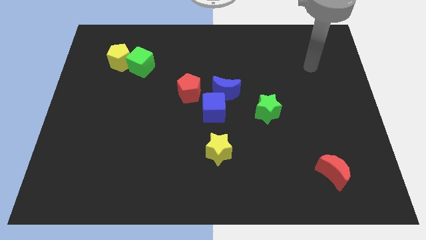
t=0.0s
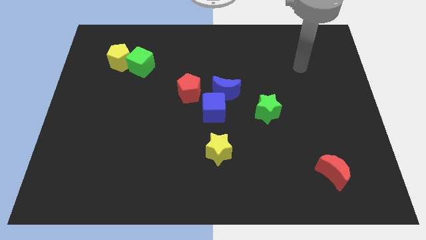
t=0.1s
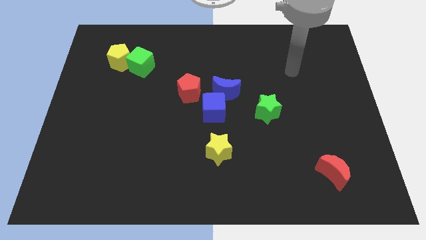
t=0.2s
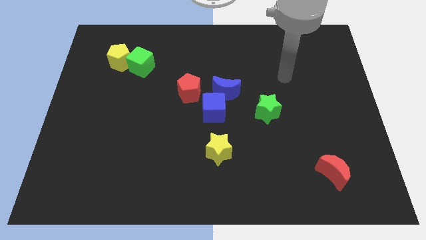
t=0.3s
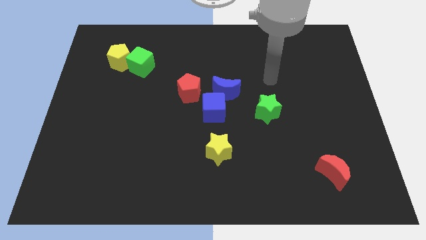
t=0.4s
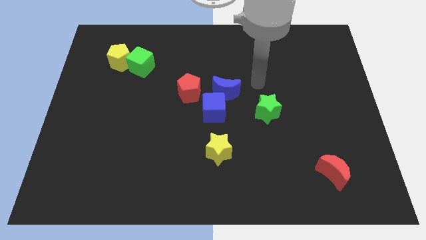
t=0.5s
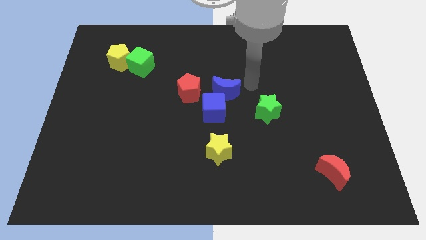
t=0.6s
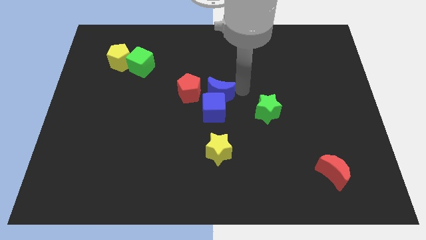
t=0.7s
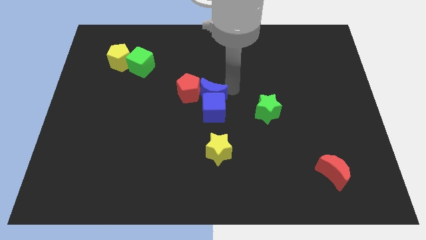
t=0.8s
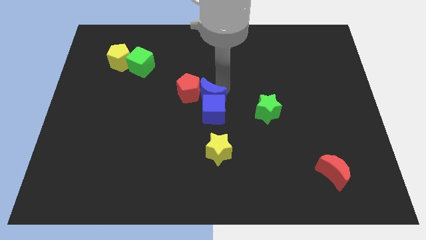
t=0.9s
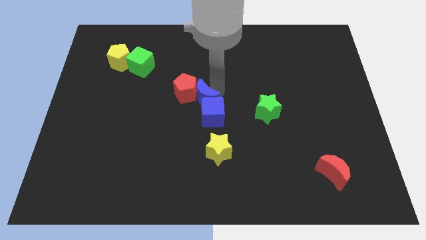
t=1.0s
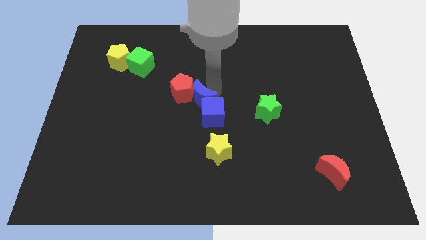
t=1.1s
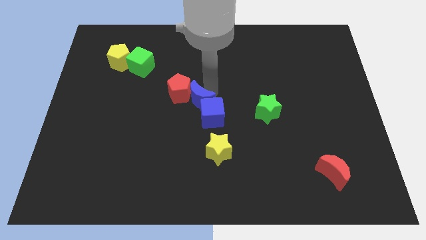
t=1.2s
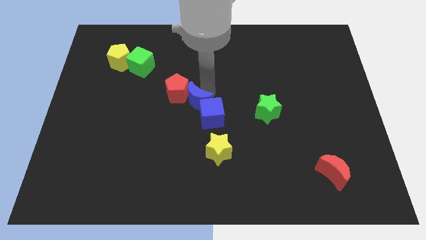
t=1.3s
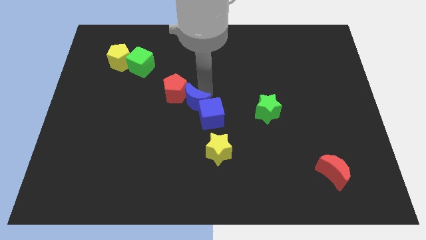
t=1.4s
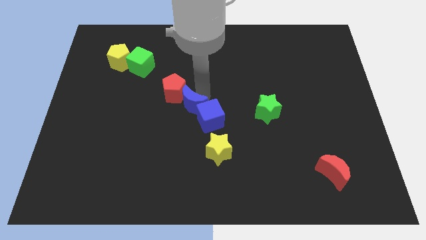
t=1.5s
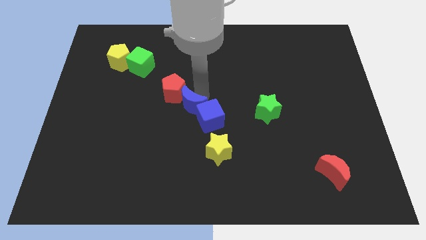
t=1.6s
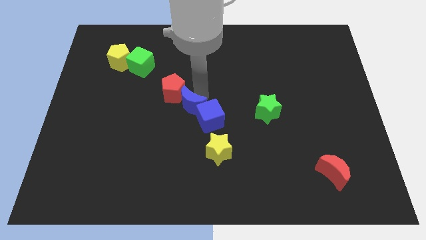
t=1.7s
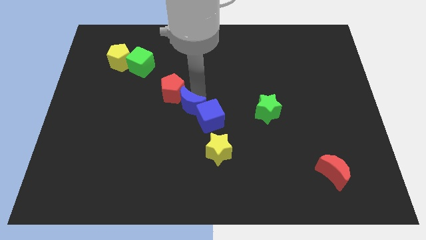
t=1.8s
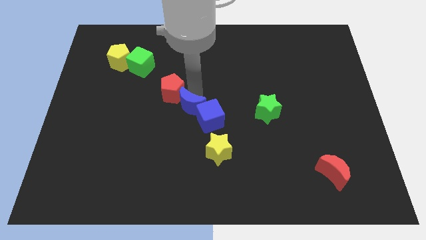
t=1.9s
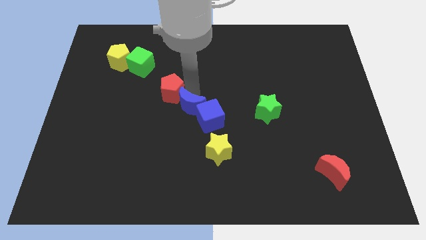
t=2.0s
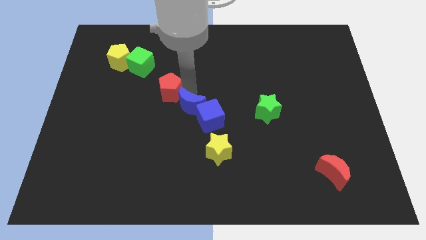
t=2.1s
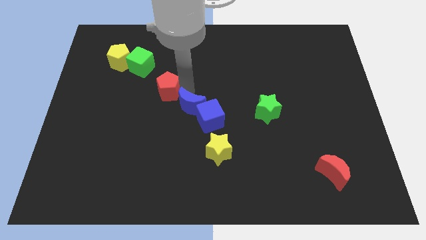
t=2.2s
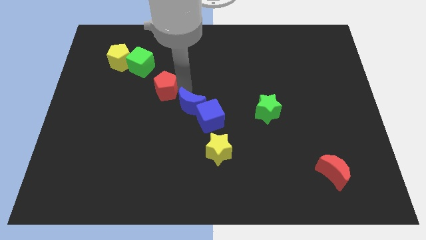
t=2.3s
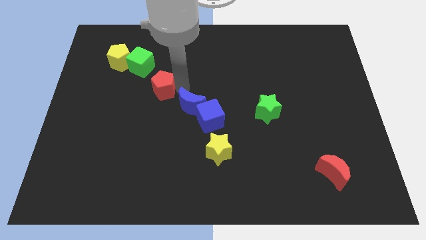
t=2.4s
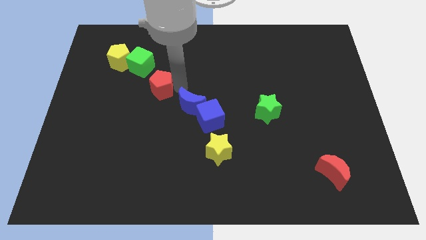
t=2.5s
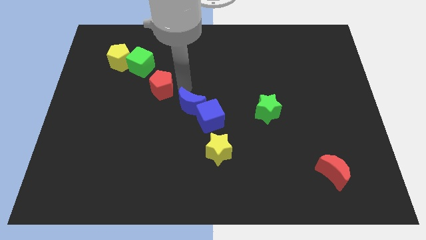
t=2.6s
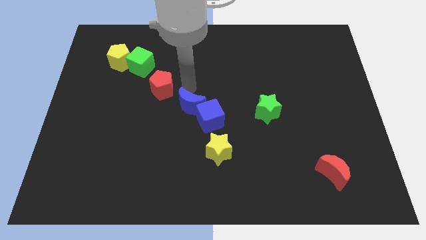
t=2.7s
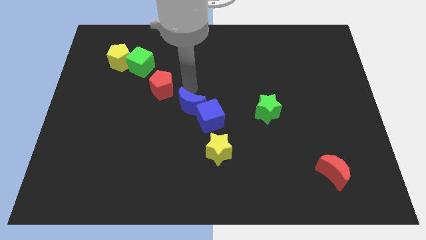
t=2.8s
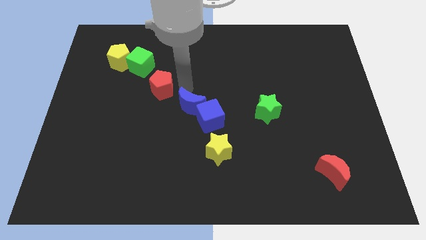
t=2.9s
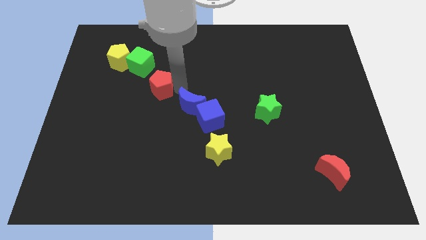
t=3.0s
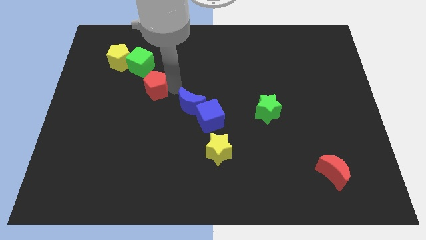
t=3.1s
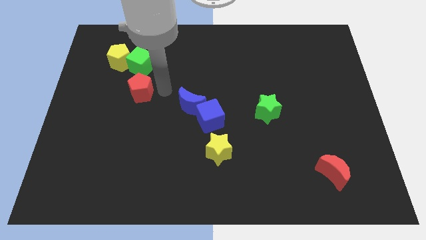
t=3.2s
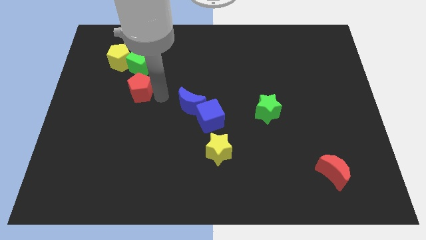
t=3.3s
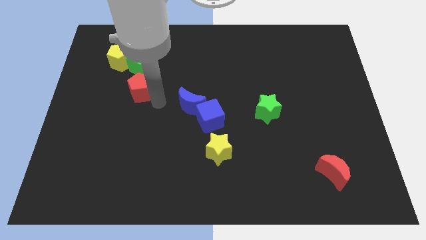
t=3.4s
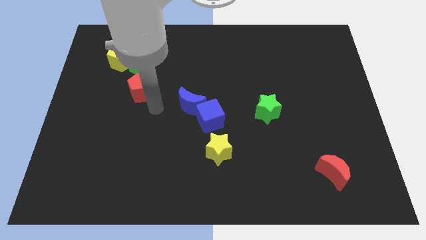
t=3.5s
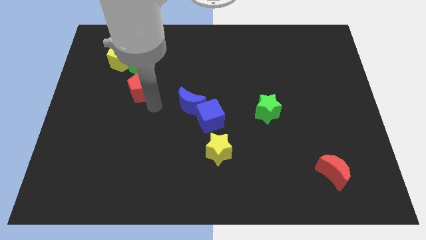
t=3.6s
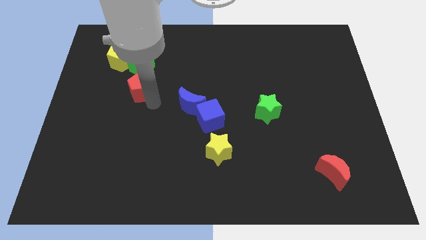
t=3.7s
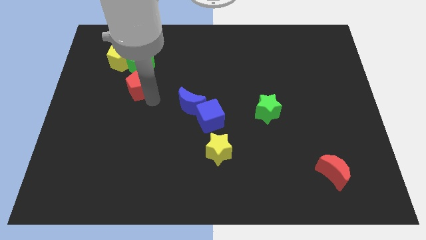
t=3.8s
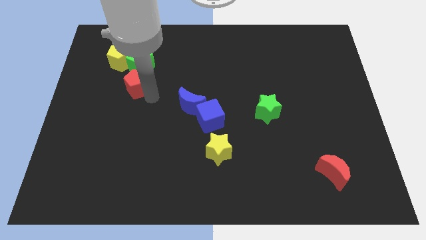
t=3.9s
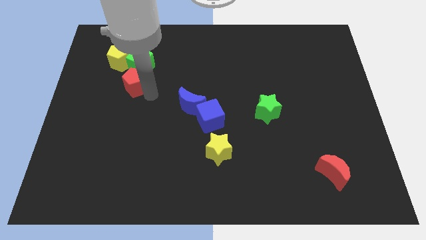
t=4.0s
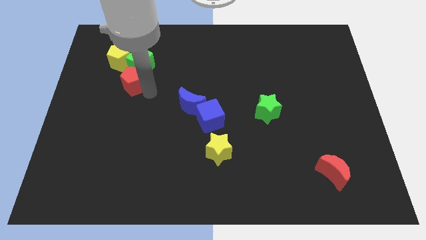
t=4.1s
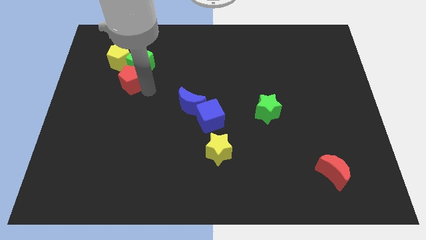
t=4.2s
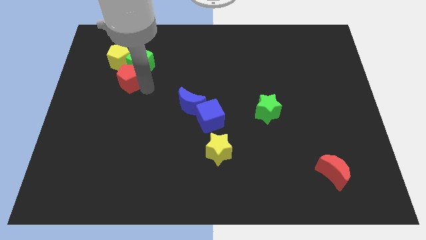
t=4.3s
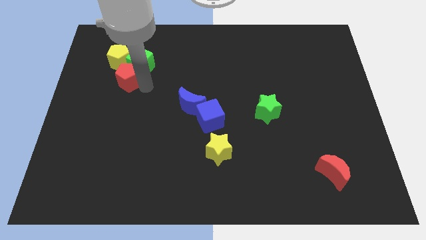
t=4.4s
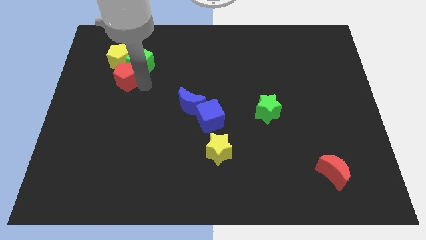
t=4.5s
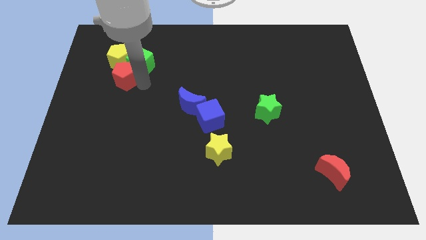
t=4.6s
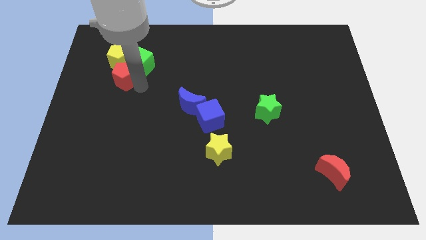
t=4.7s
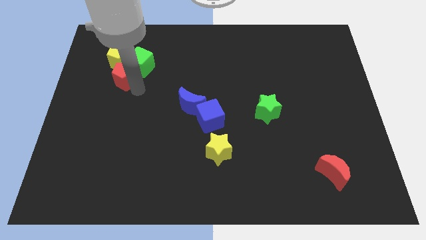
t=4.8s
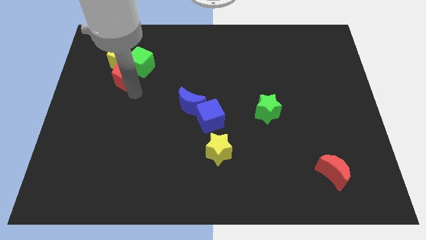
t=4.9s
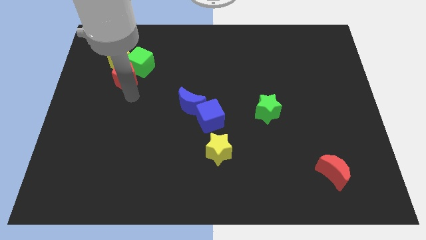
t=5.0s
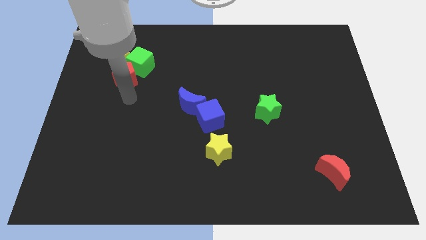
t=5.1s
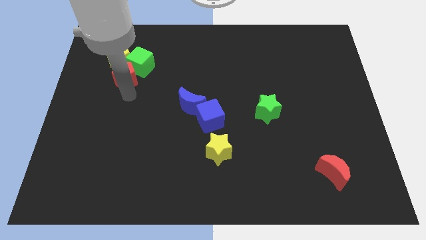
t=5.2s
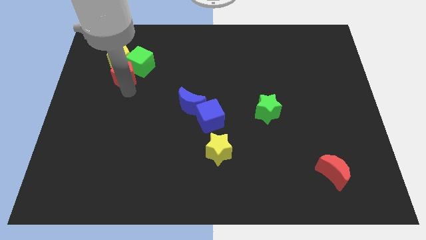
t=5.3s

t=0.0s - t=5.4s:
slide the red pentagon close to the yellow pentagon

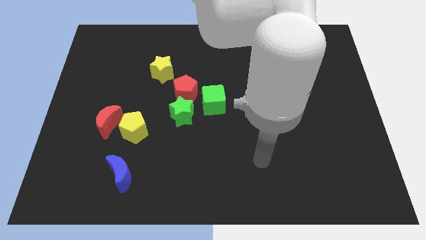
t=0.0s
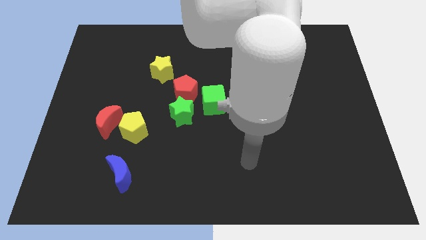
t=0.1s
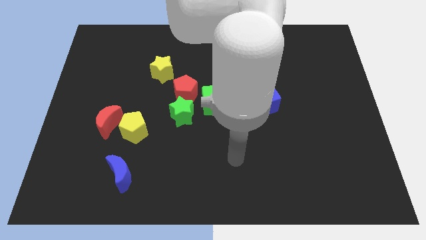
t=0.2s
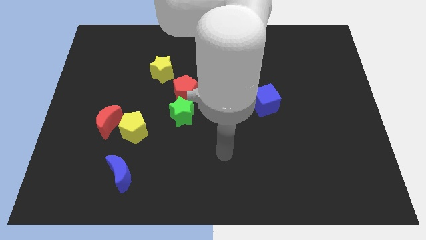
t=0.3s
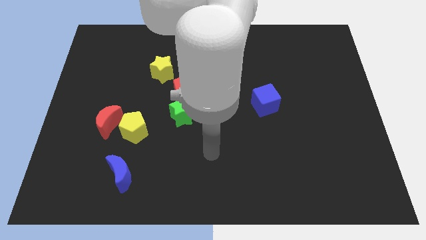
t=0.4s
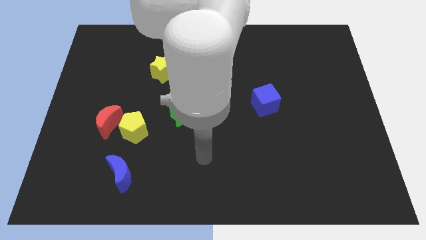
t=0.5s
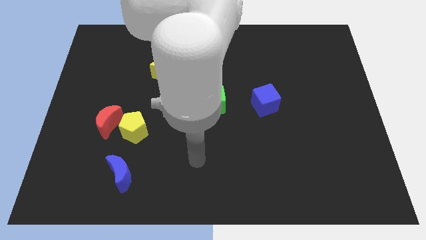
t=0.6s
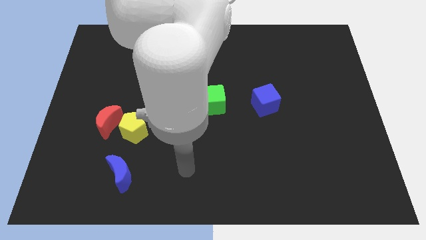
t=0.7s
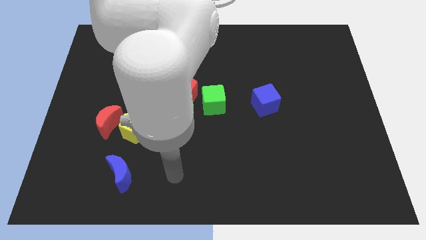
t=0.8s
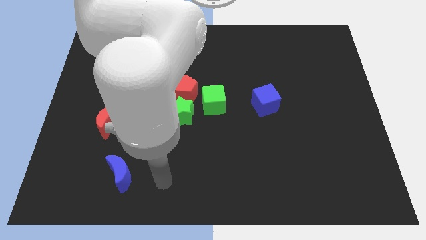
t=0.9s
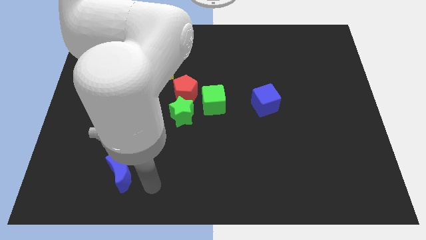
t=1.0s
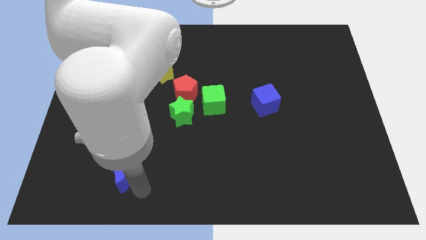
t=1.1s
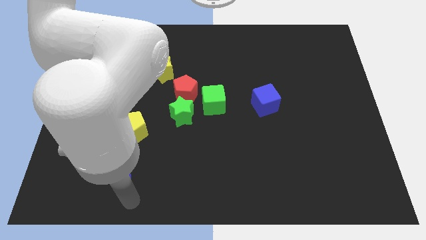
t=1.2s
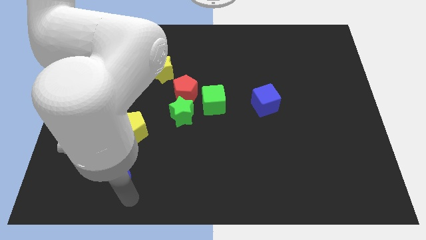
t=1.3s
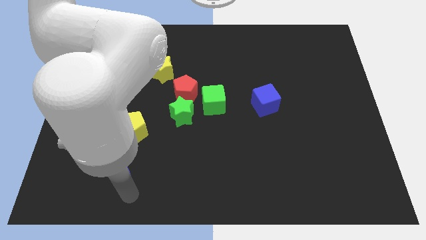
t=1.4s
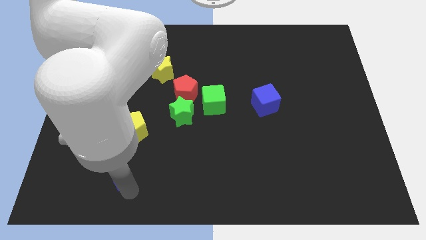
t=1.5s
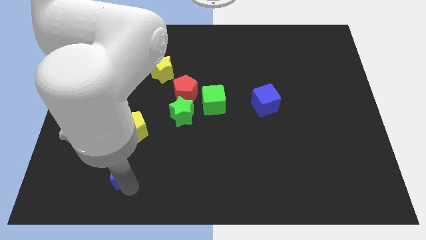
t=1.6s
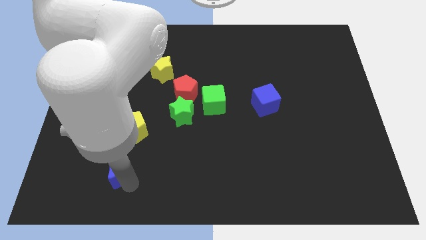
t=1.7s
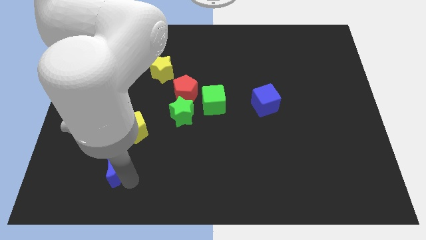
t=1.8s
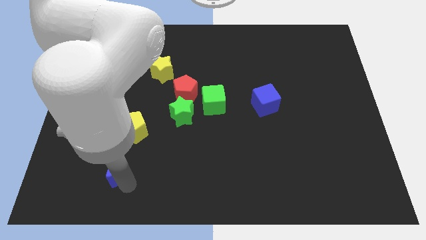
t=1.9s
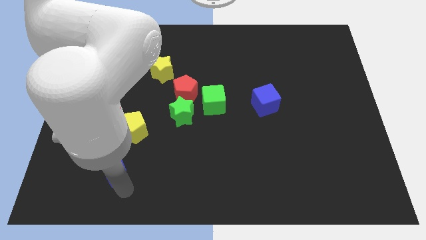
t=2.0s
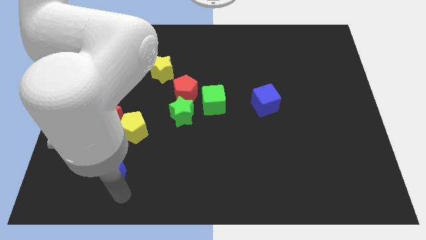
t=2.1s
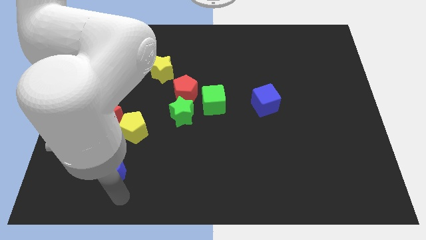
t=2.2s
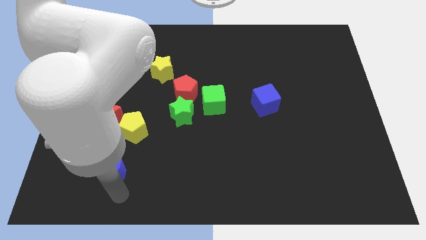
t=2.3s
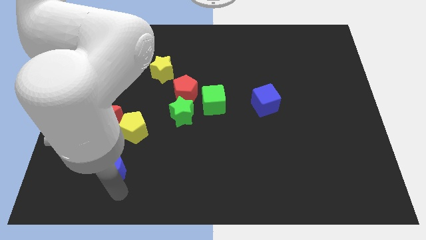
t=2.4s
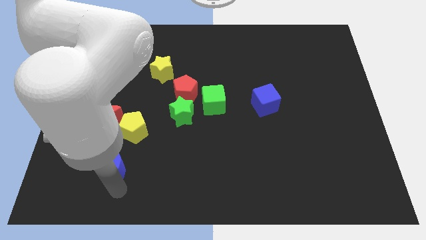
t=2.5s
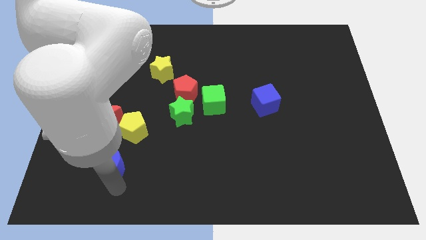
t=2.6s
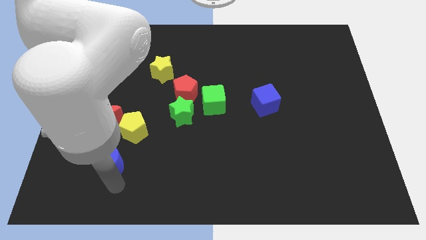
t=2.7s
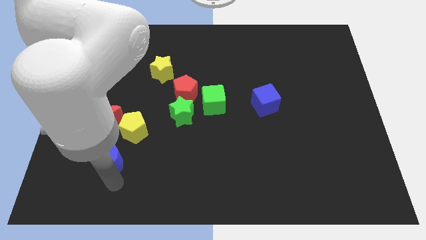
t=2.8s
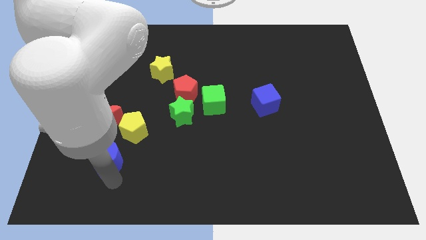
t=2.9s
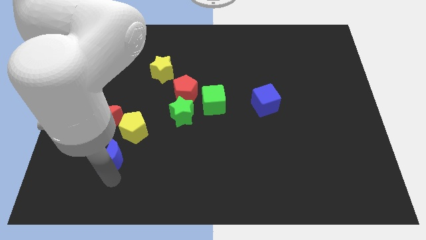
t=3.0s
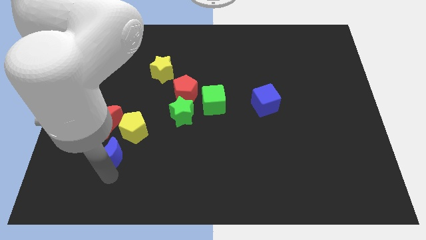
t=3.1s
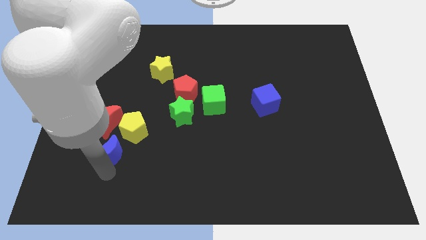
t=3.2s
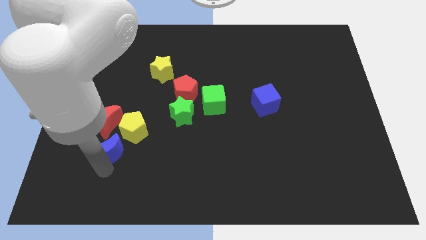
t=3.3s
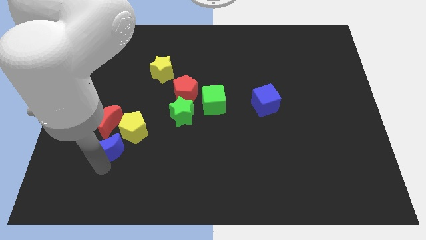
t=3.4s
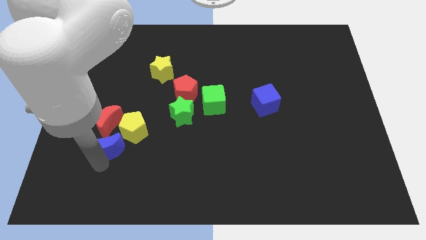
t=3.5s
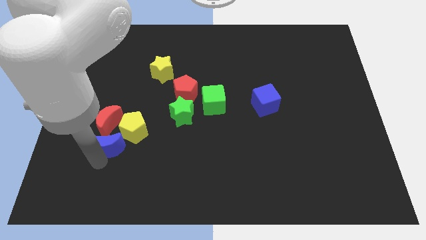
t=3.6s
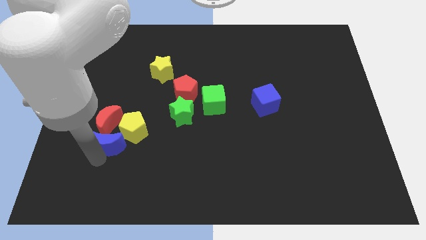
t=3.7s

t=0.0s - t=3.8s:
slide the blue moon towards the red moon
